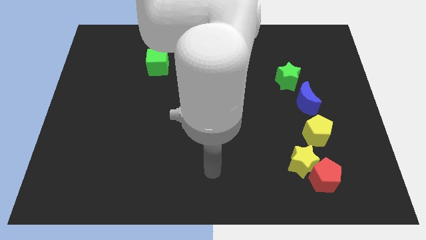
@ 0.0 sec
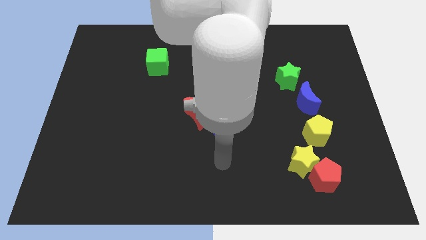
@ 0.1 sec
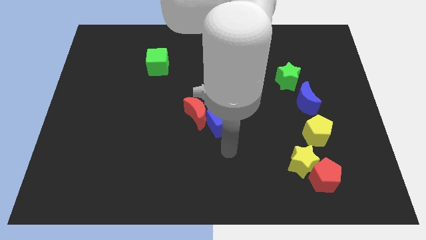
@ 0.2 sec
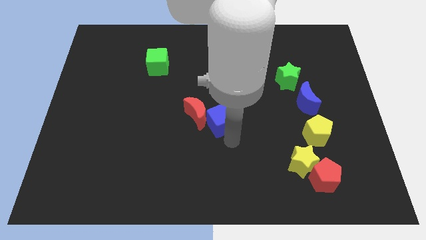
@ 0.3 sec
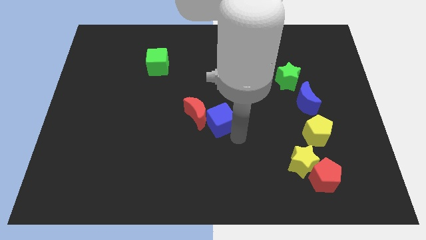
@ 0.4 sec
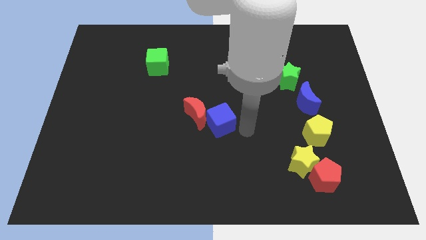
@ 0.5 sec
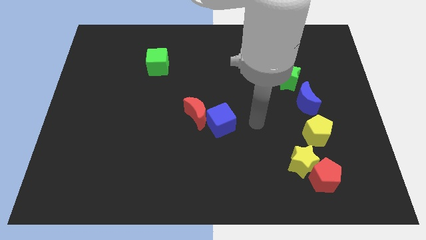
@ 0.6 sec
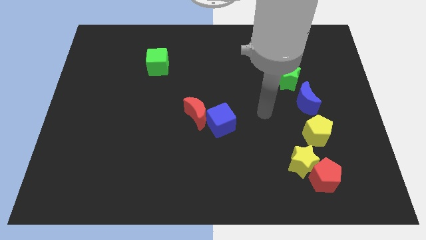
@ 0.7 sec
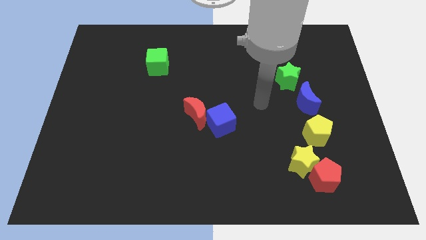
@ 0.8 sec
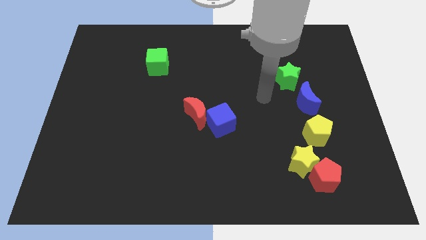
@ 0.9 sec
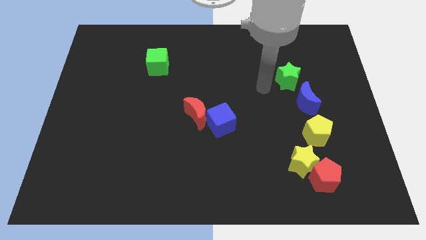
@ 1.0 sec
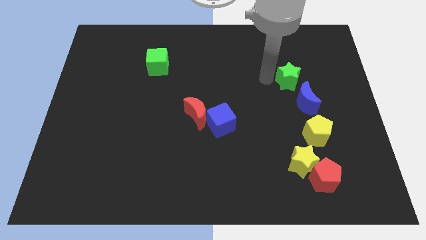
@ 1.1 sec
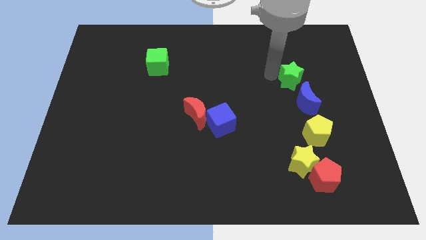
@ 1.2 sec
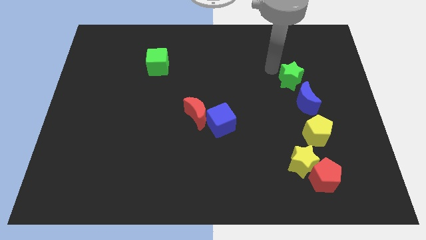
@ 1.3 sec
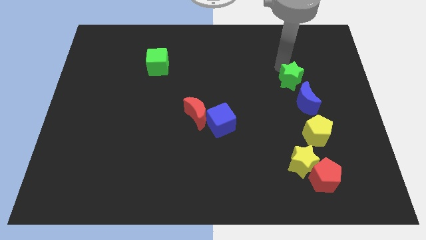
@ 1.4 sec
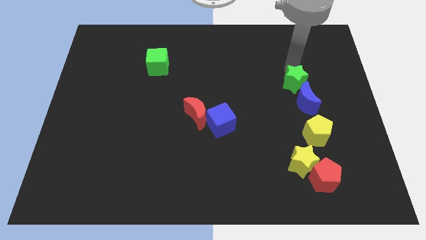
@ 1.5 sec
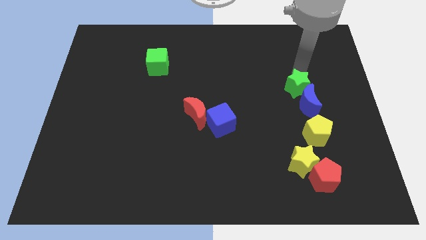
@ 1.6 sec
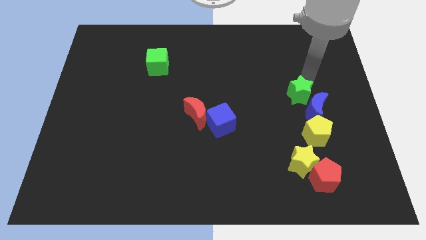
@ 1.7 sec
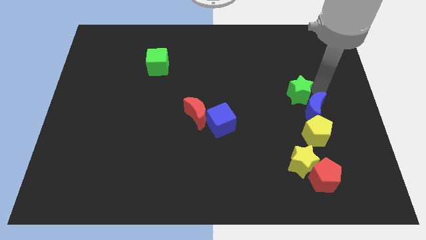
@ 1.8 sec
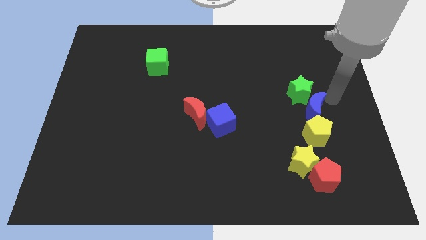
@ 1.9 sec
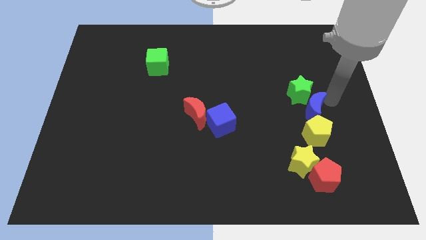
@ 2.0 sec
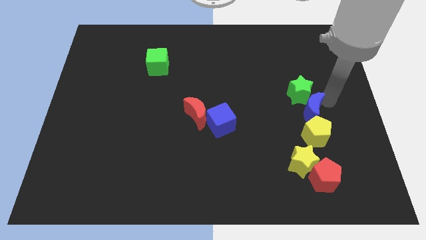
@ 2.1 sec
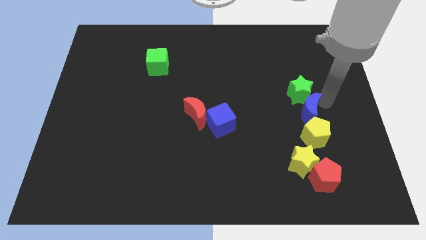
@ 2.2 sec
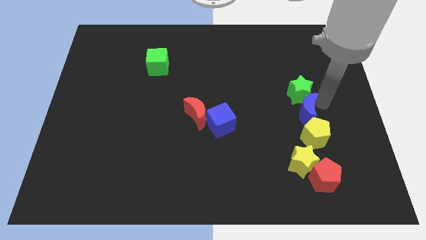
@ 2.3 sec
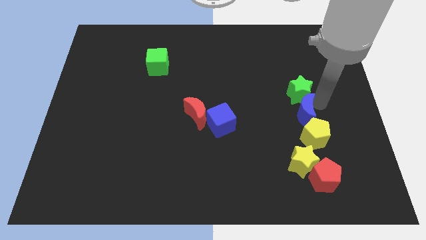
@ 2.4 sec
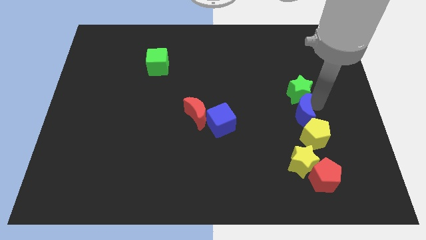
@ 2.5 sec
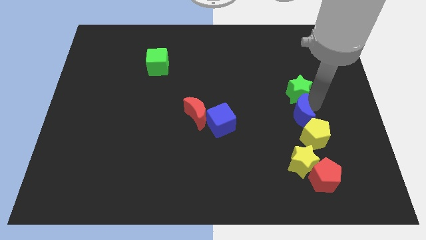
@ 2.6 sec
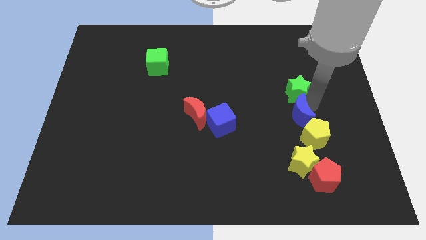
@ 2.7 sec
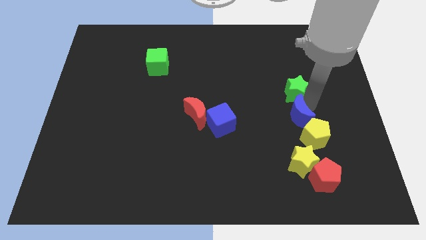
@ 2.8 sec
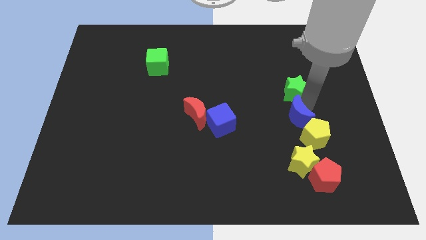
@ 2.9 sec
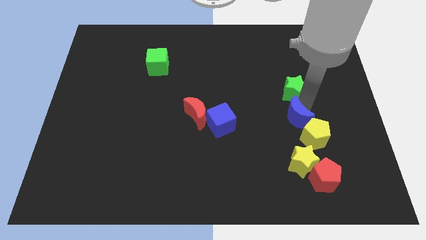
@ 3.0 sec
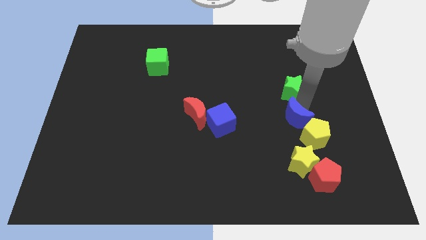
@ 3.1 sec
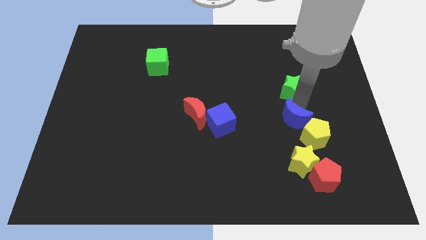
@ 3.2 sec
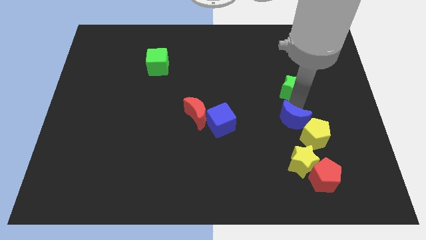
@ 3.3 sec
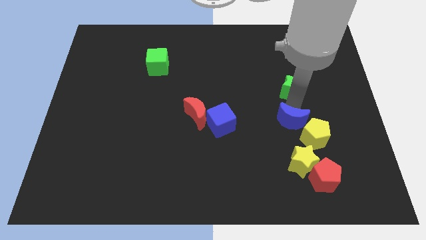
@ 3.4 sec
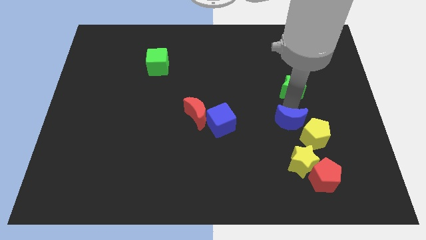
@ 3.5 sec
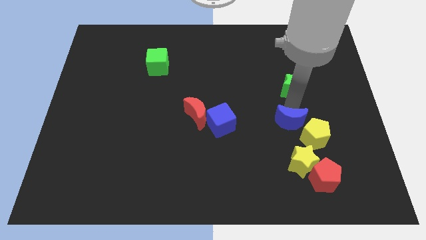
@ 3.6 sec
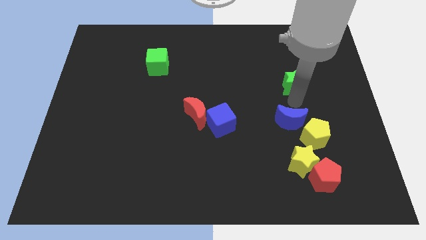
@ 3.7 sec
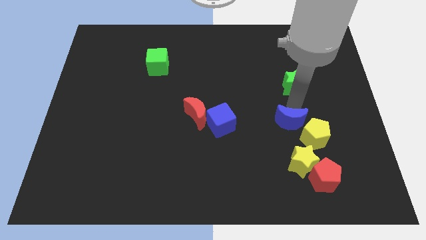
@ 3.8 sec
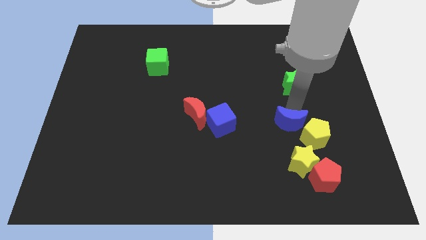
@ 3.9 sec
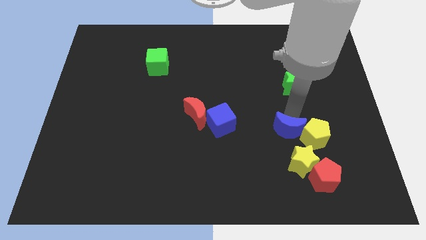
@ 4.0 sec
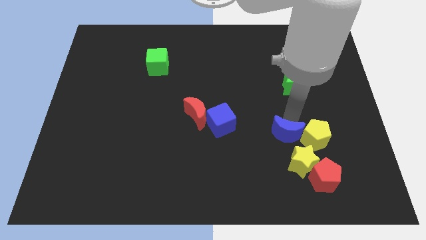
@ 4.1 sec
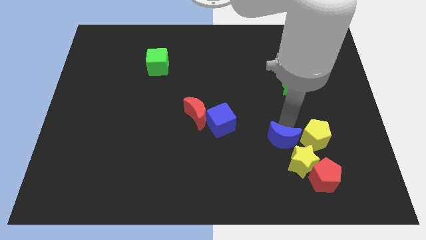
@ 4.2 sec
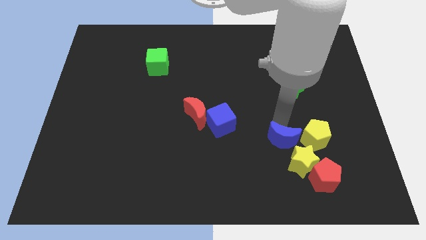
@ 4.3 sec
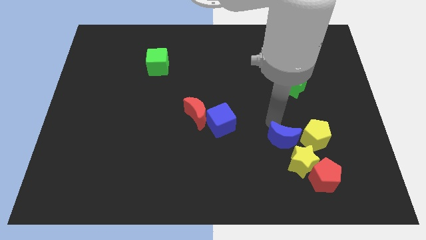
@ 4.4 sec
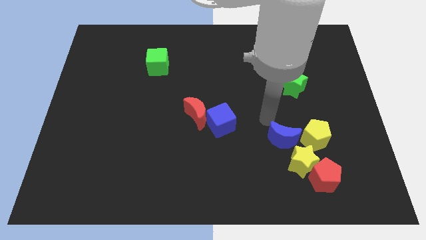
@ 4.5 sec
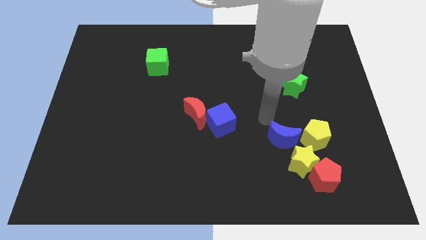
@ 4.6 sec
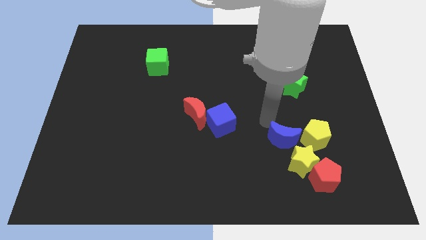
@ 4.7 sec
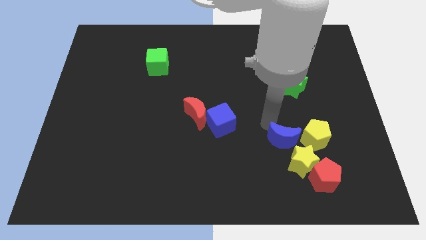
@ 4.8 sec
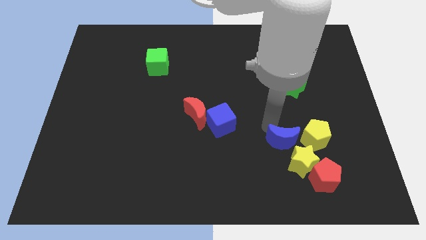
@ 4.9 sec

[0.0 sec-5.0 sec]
slide the blue moon close to the yellow star

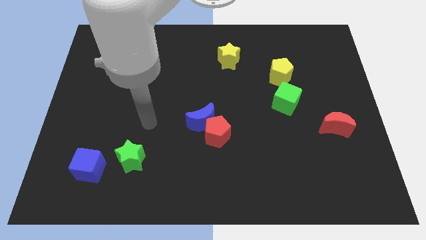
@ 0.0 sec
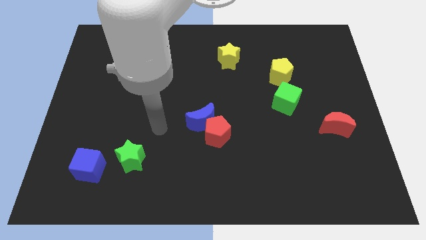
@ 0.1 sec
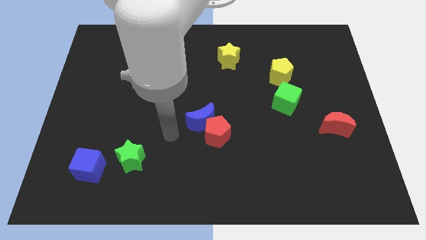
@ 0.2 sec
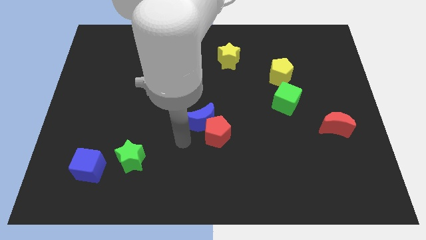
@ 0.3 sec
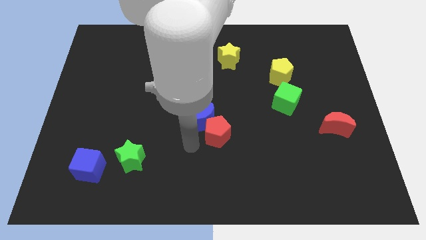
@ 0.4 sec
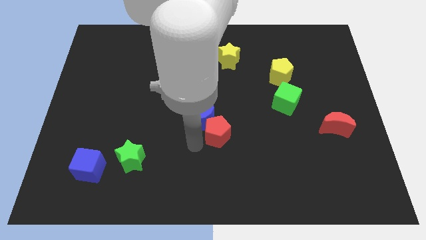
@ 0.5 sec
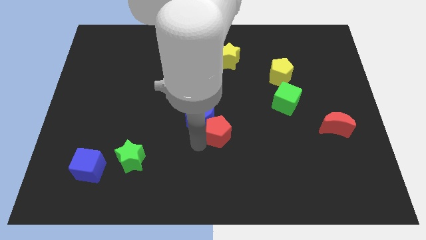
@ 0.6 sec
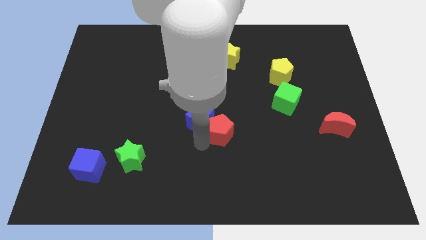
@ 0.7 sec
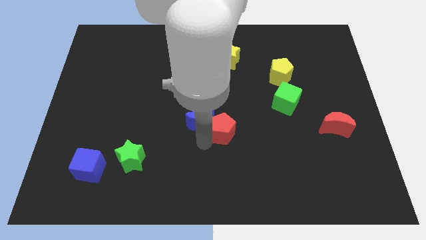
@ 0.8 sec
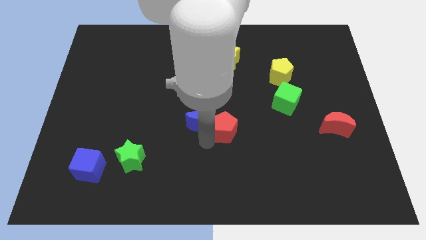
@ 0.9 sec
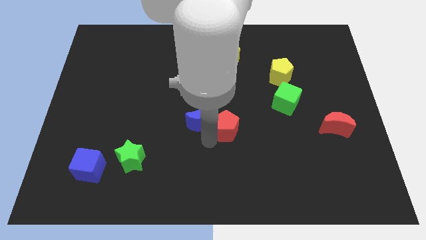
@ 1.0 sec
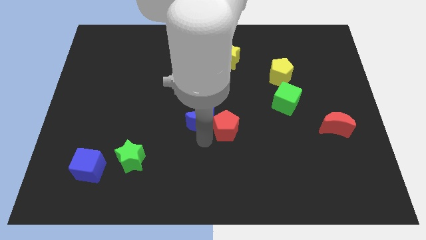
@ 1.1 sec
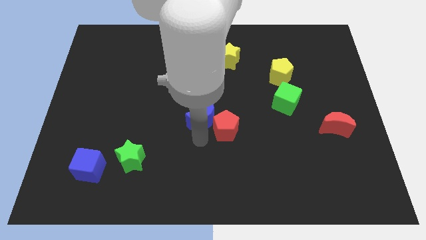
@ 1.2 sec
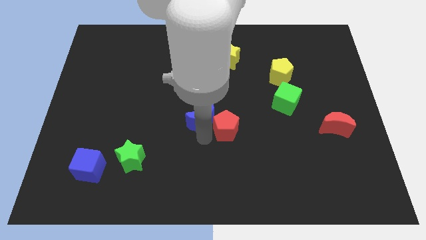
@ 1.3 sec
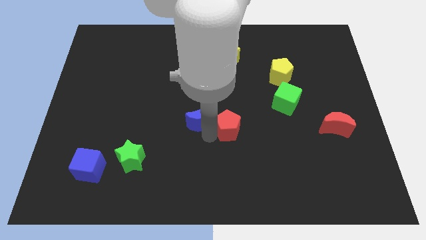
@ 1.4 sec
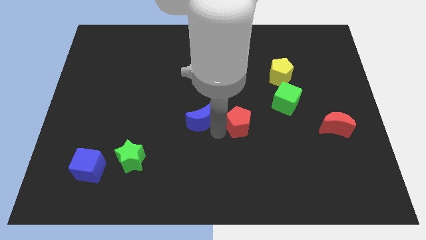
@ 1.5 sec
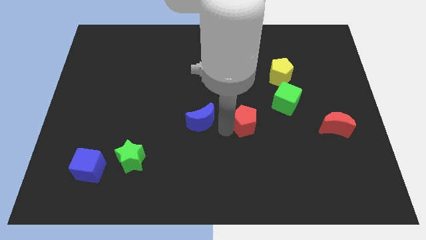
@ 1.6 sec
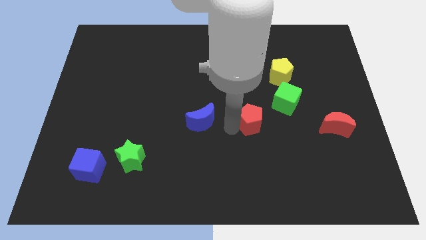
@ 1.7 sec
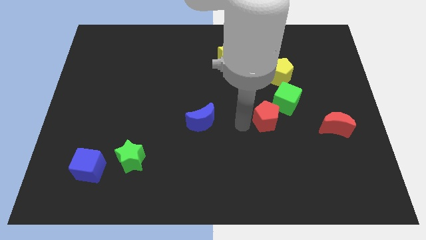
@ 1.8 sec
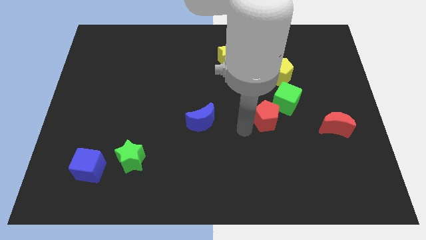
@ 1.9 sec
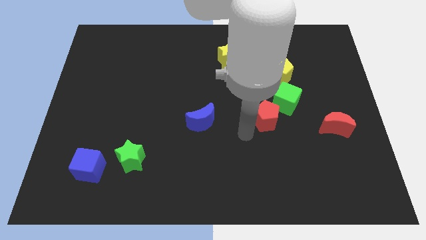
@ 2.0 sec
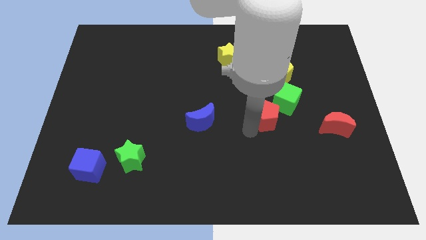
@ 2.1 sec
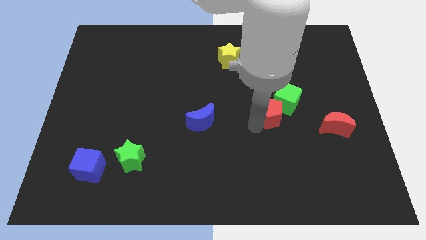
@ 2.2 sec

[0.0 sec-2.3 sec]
put the red pentagon towards the green cube
